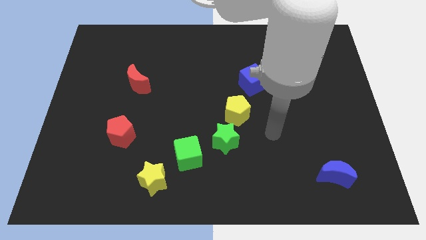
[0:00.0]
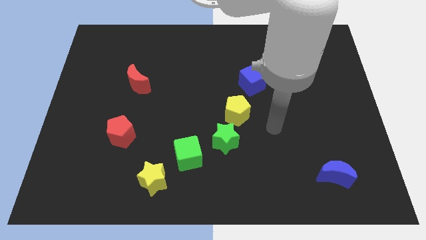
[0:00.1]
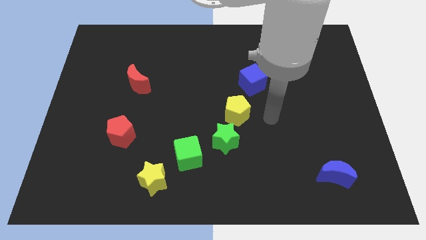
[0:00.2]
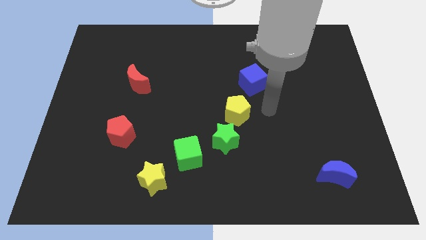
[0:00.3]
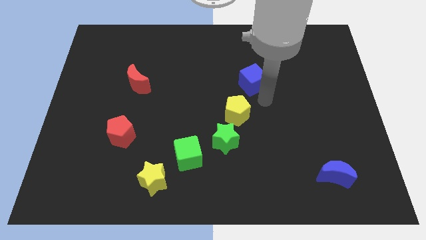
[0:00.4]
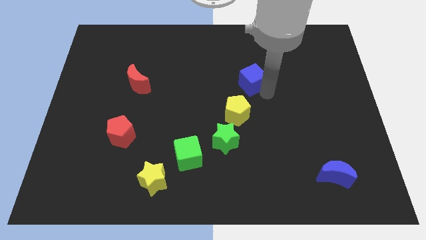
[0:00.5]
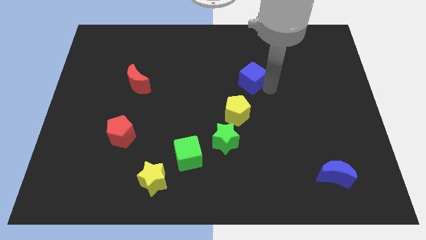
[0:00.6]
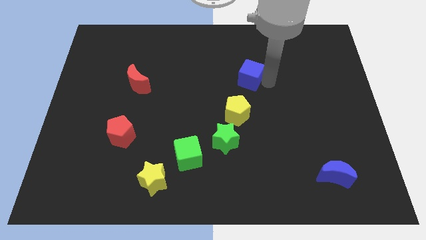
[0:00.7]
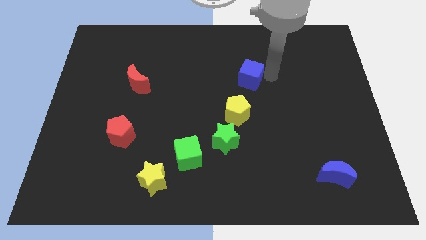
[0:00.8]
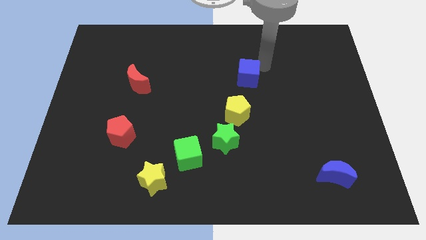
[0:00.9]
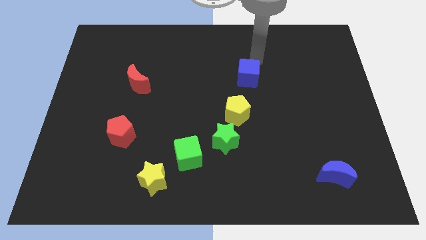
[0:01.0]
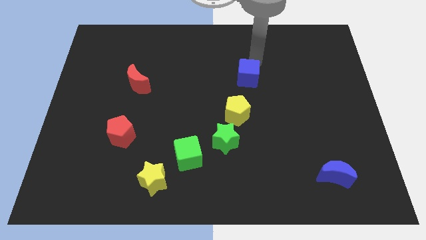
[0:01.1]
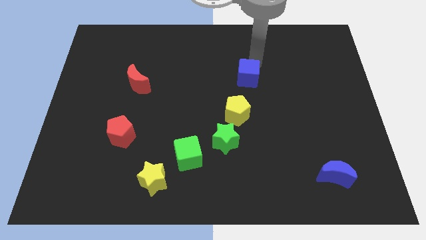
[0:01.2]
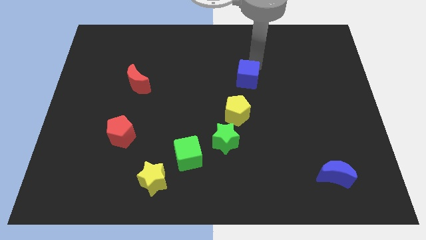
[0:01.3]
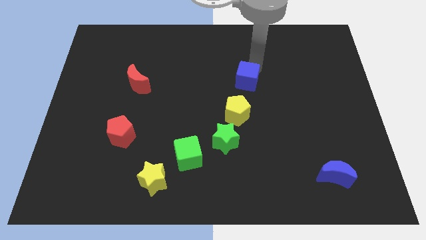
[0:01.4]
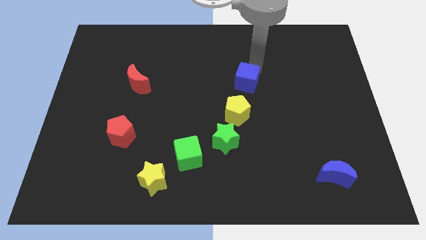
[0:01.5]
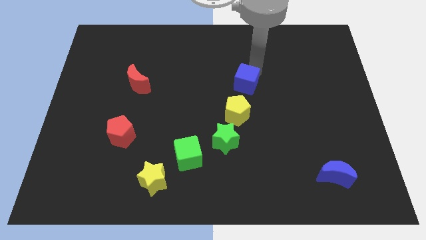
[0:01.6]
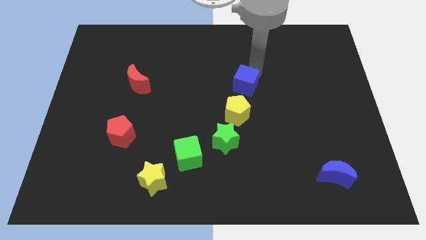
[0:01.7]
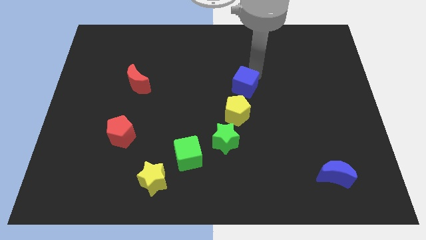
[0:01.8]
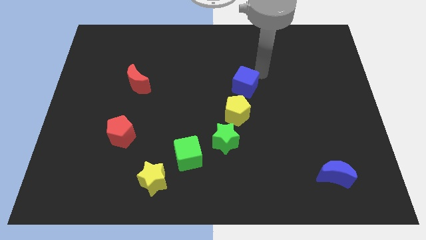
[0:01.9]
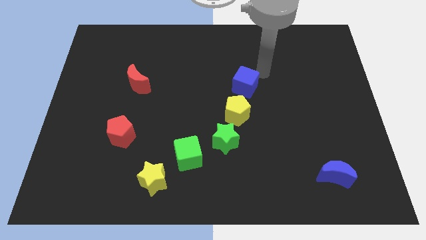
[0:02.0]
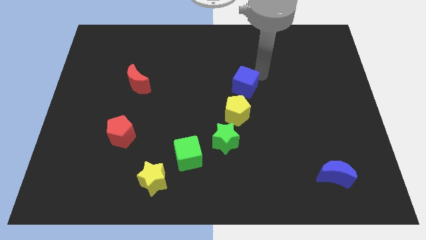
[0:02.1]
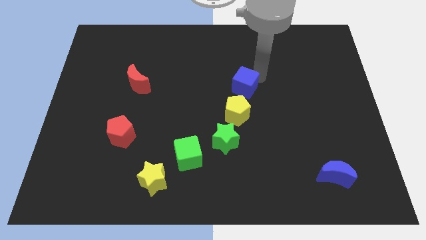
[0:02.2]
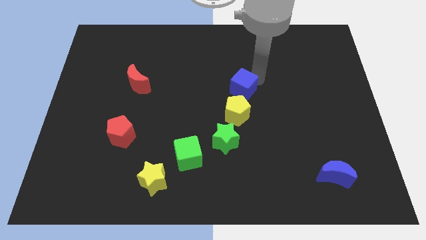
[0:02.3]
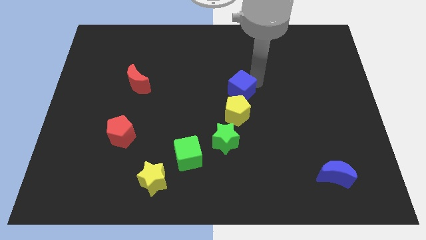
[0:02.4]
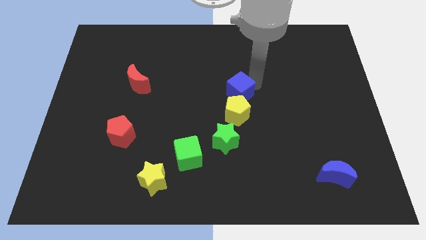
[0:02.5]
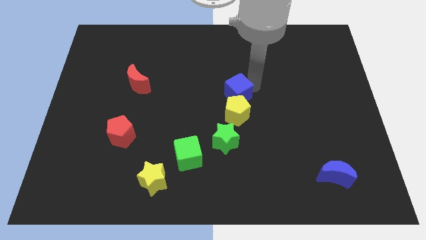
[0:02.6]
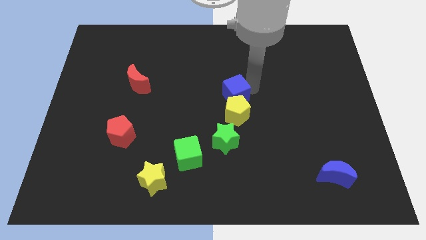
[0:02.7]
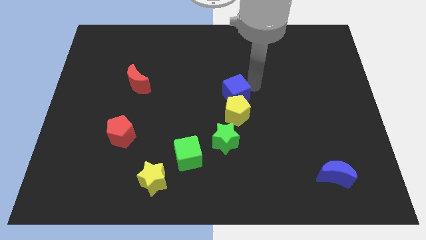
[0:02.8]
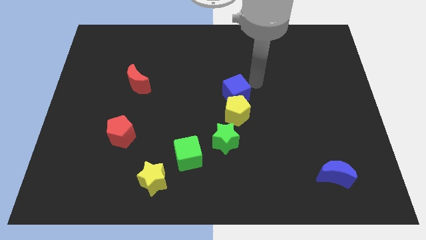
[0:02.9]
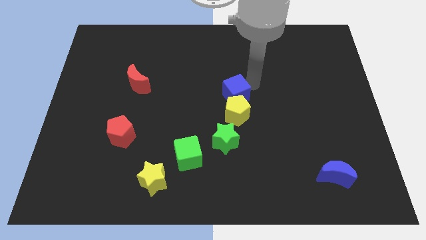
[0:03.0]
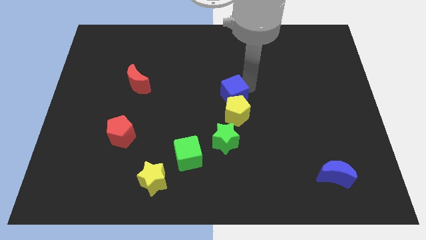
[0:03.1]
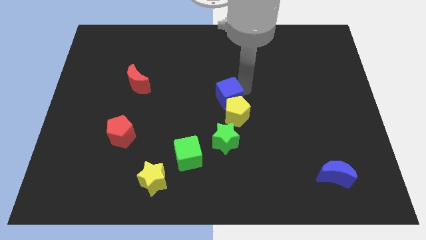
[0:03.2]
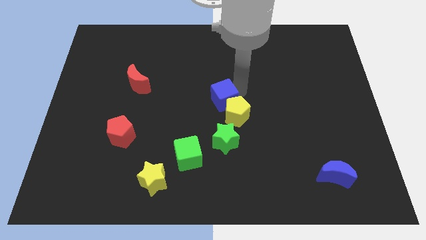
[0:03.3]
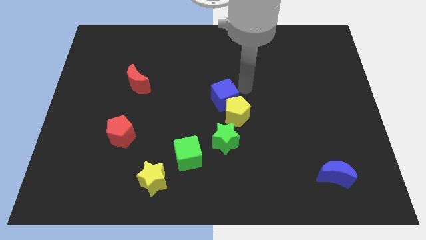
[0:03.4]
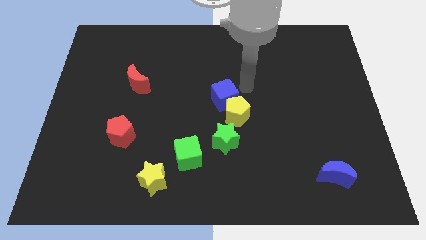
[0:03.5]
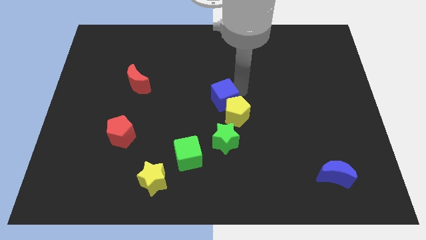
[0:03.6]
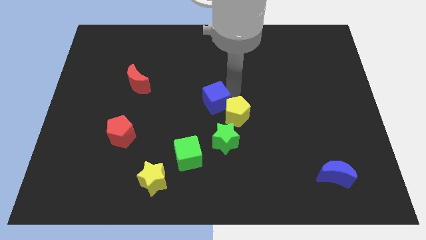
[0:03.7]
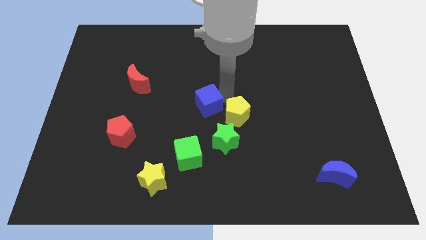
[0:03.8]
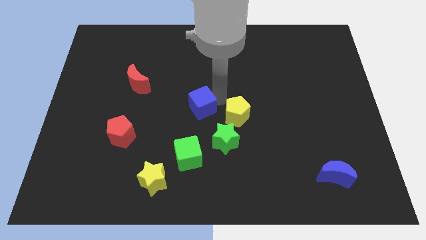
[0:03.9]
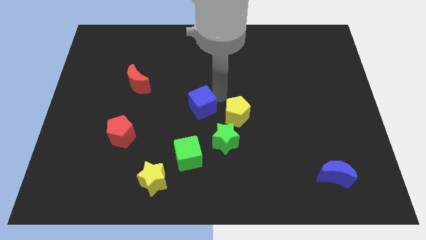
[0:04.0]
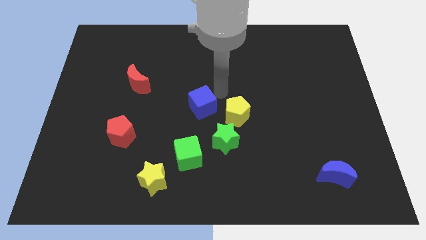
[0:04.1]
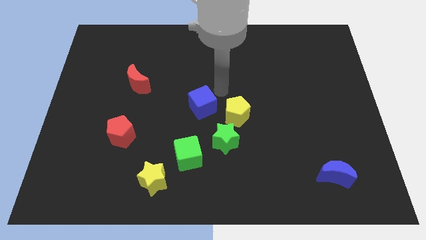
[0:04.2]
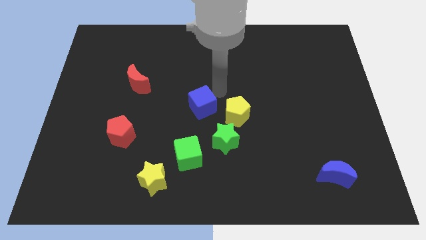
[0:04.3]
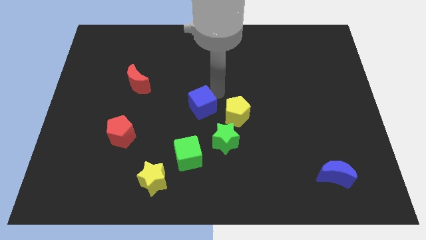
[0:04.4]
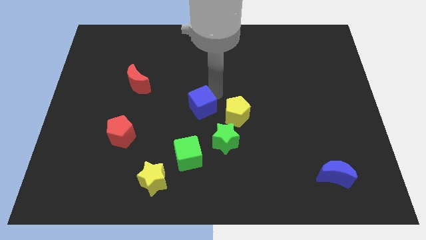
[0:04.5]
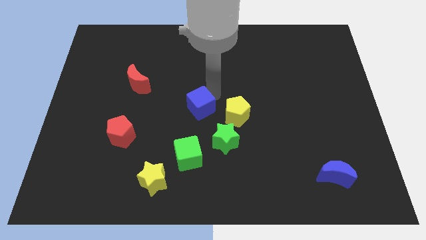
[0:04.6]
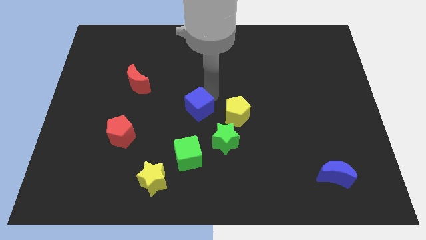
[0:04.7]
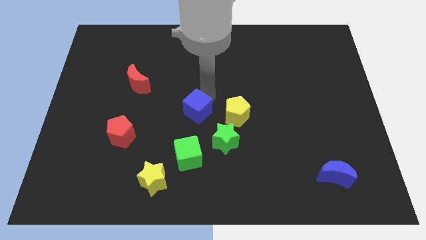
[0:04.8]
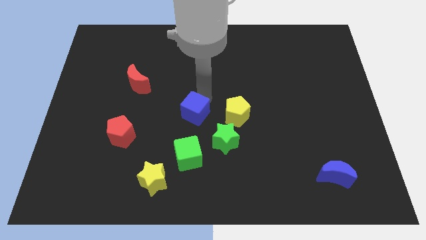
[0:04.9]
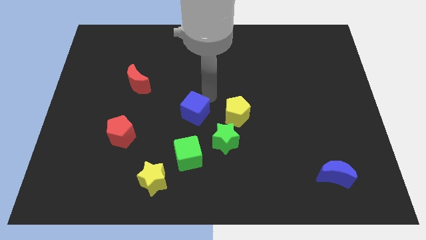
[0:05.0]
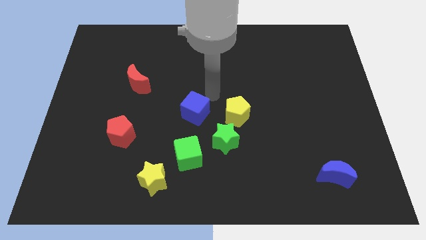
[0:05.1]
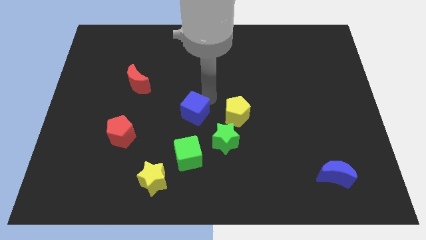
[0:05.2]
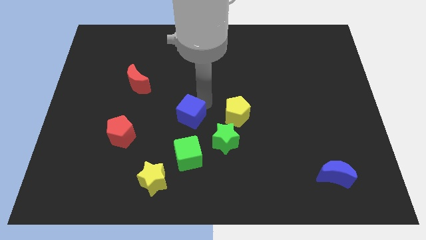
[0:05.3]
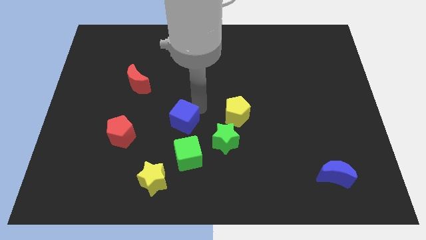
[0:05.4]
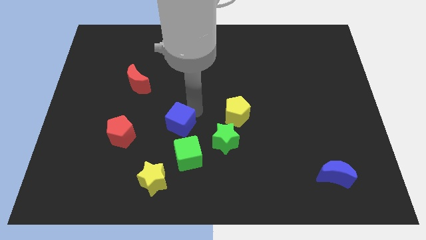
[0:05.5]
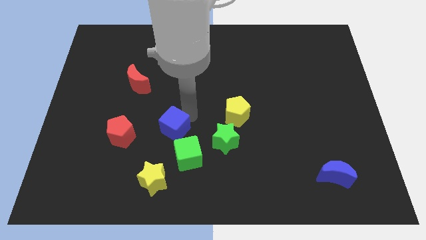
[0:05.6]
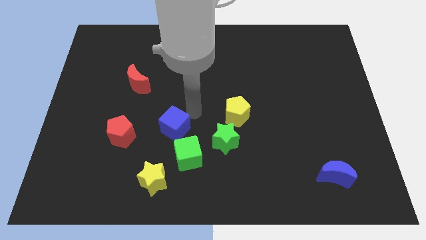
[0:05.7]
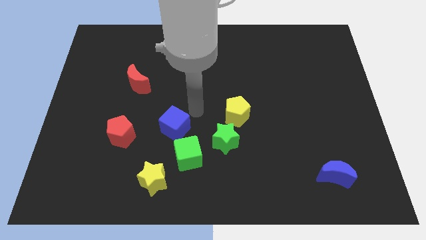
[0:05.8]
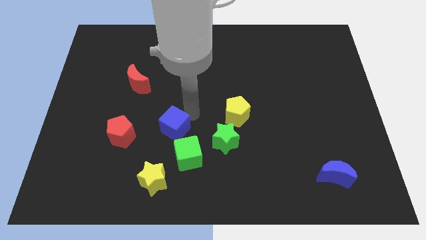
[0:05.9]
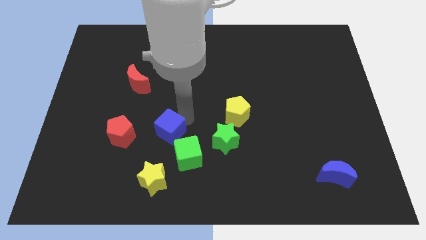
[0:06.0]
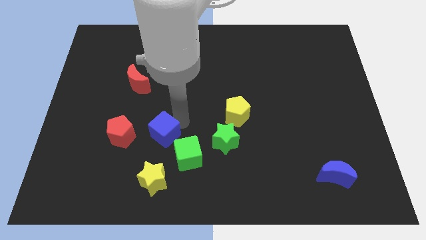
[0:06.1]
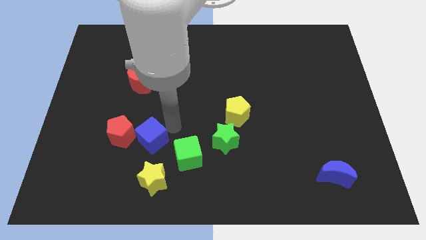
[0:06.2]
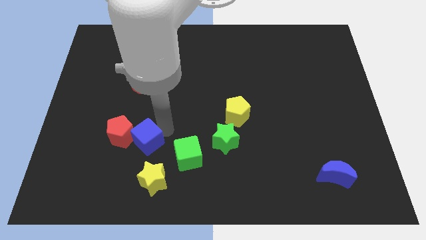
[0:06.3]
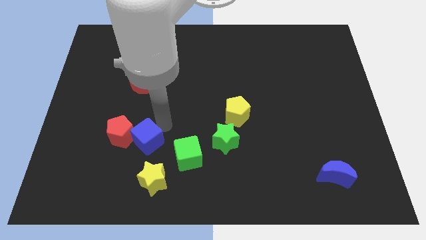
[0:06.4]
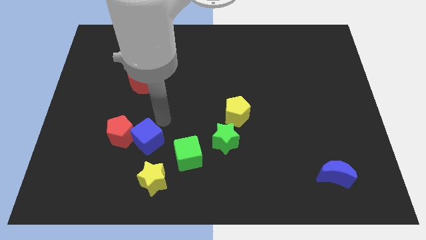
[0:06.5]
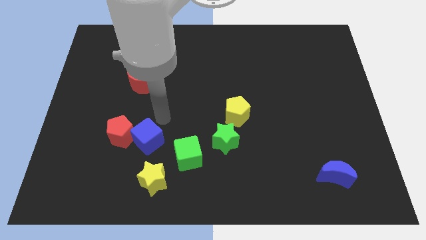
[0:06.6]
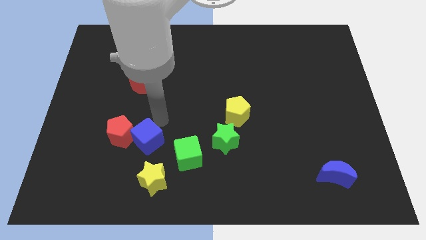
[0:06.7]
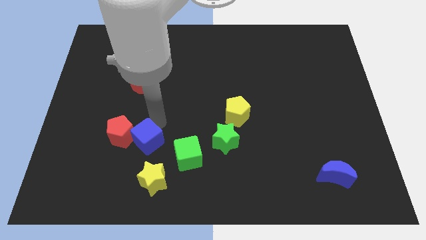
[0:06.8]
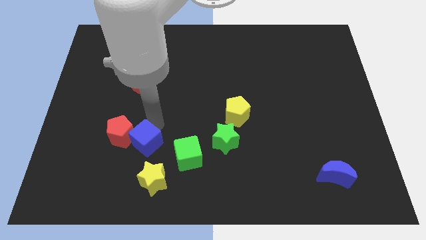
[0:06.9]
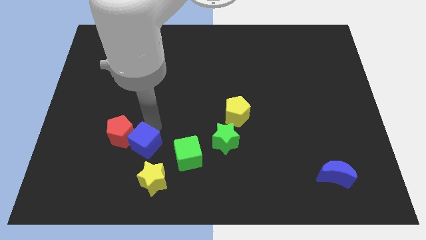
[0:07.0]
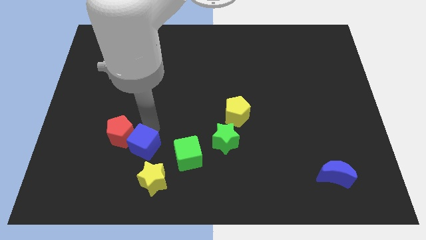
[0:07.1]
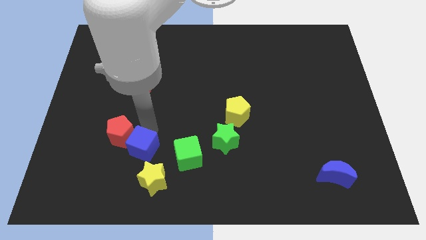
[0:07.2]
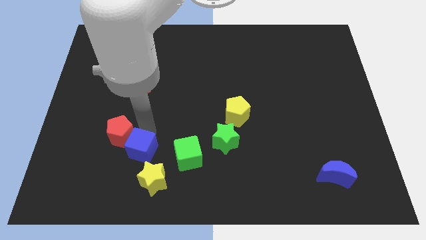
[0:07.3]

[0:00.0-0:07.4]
push the blue cube to the bottom of the red pentagon
